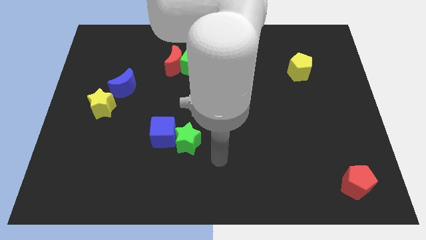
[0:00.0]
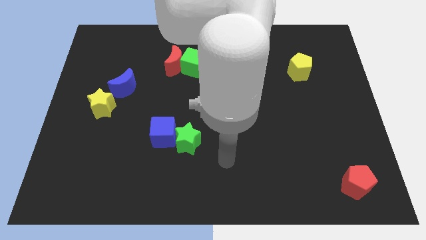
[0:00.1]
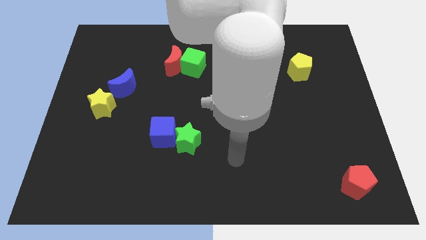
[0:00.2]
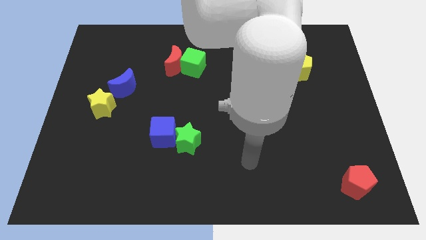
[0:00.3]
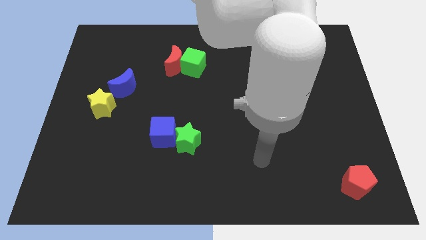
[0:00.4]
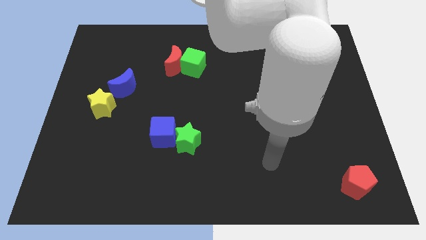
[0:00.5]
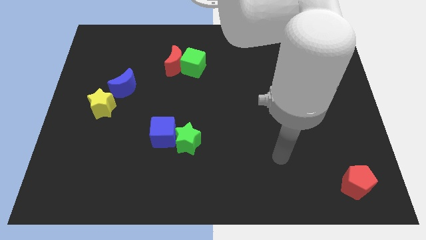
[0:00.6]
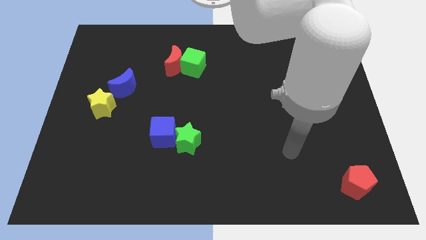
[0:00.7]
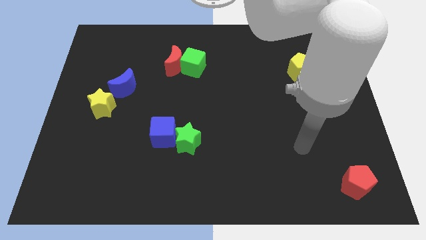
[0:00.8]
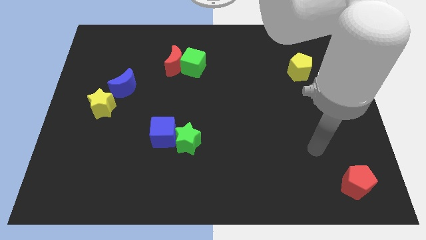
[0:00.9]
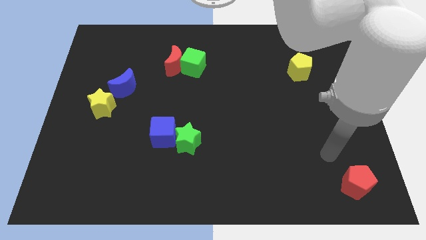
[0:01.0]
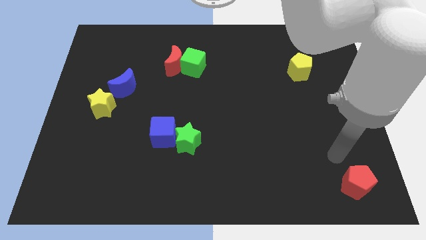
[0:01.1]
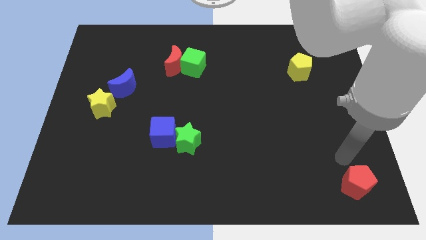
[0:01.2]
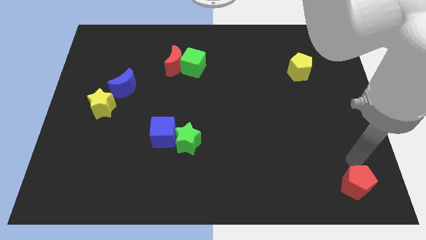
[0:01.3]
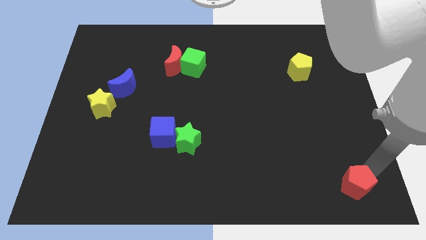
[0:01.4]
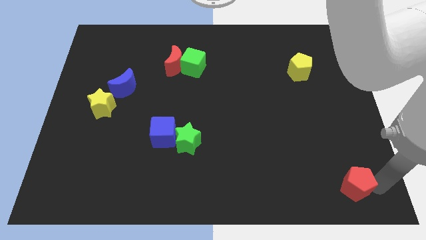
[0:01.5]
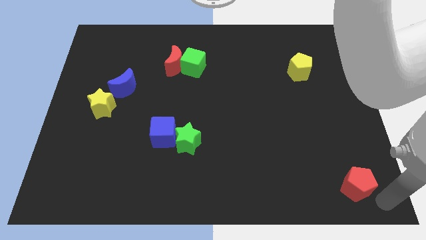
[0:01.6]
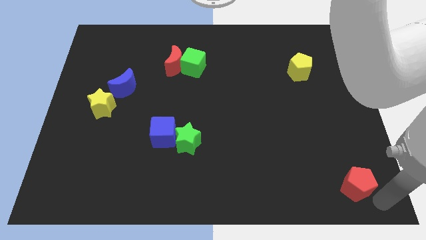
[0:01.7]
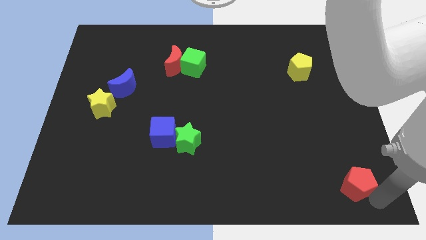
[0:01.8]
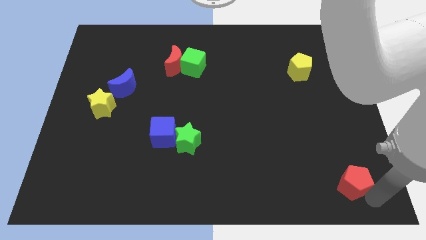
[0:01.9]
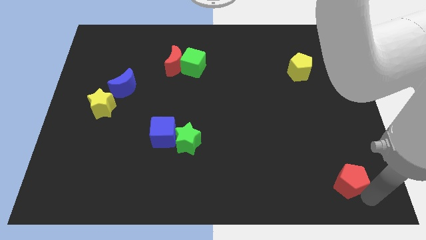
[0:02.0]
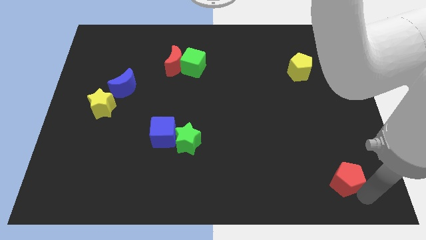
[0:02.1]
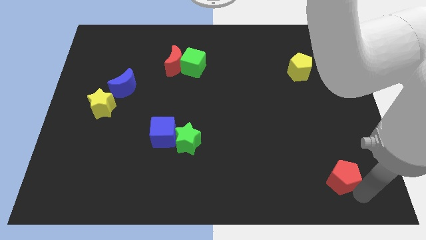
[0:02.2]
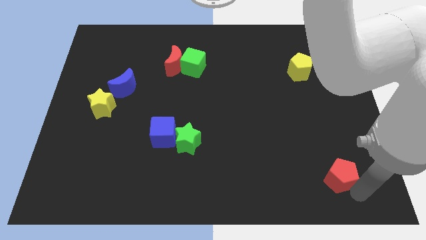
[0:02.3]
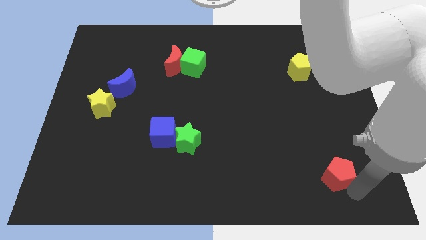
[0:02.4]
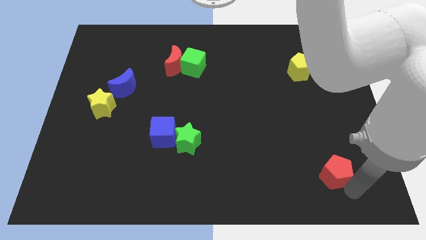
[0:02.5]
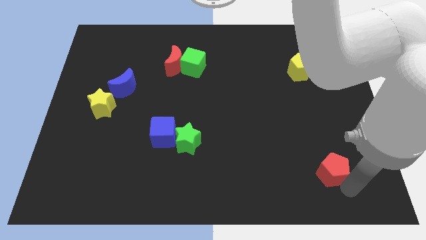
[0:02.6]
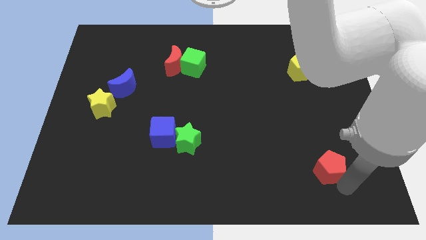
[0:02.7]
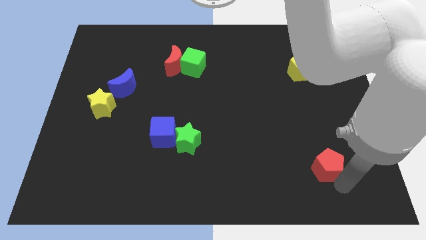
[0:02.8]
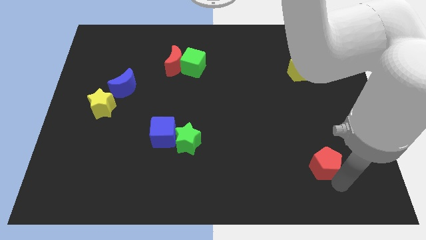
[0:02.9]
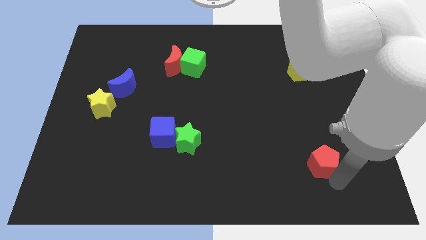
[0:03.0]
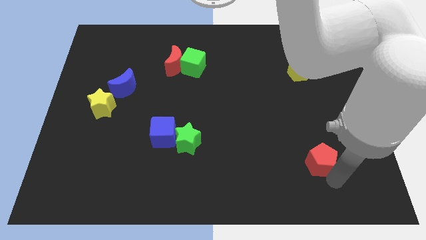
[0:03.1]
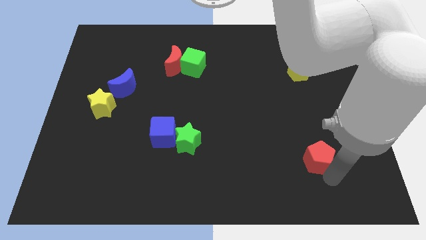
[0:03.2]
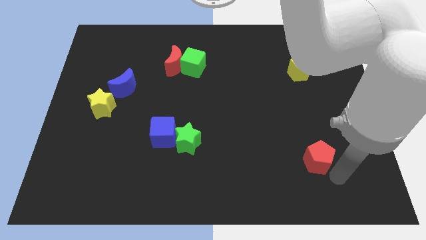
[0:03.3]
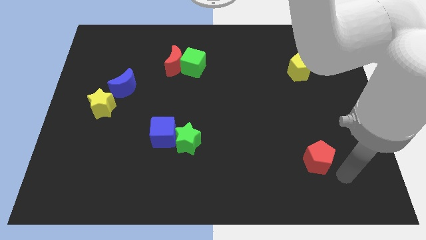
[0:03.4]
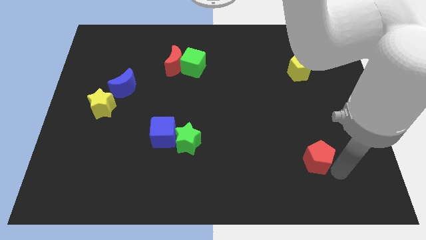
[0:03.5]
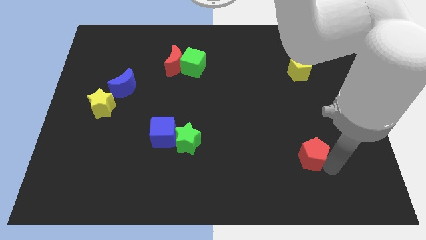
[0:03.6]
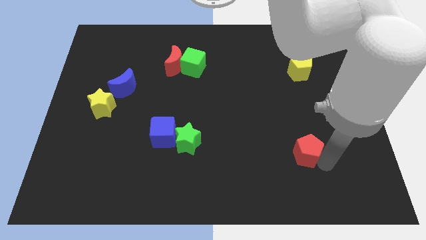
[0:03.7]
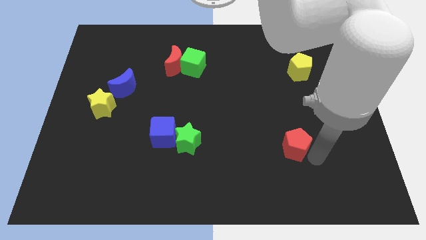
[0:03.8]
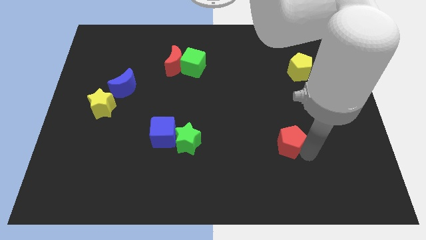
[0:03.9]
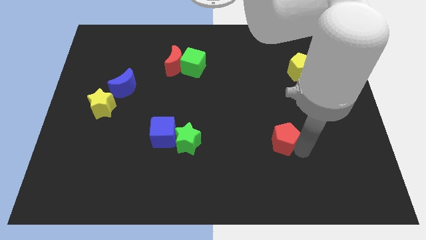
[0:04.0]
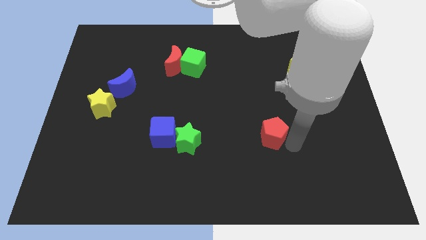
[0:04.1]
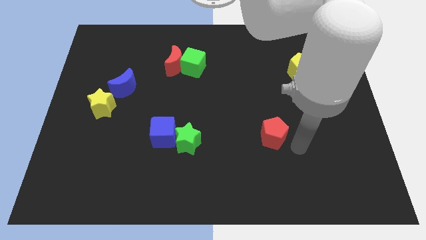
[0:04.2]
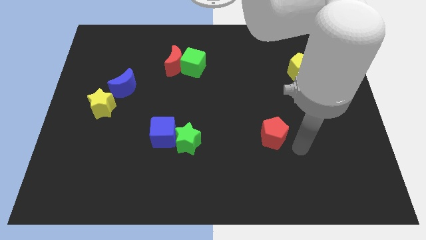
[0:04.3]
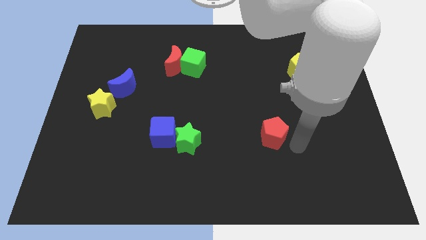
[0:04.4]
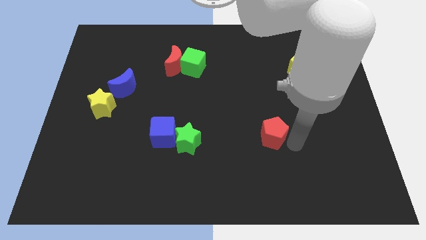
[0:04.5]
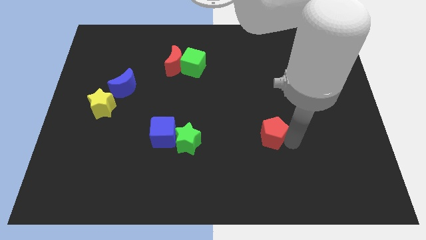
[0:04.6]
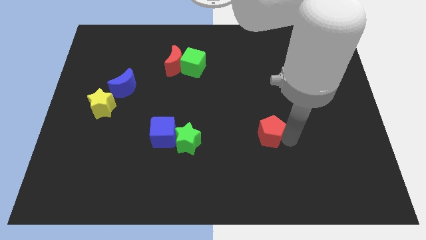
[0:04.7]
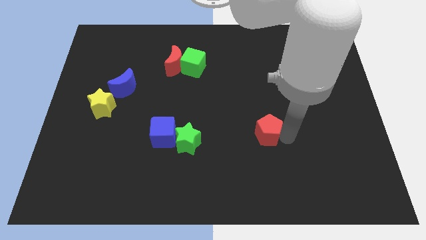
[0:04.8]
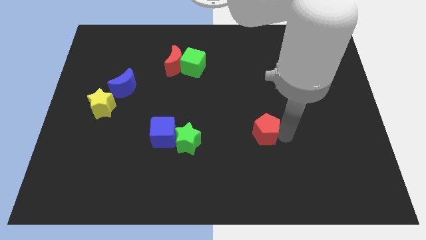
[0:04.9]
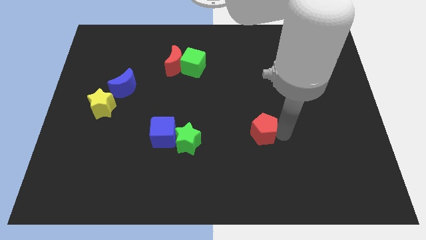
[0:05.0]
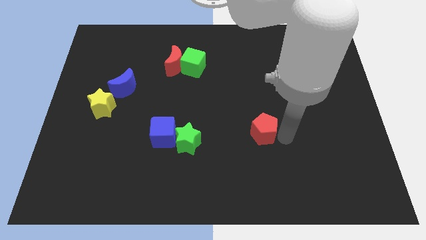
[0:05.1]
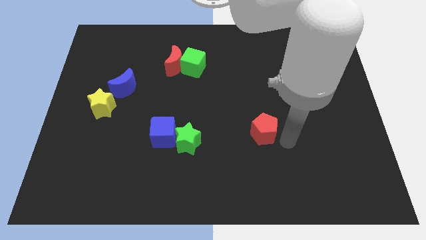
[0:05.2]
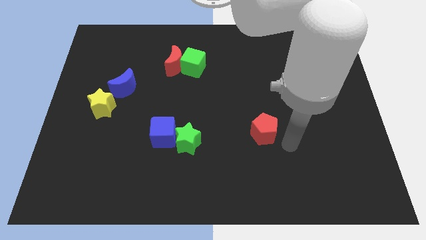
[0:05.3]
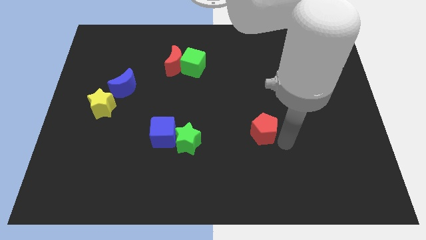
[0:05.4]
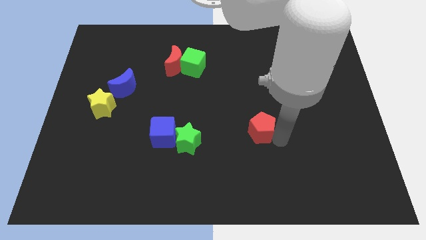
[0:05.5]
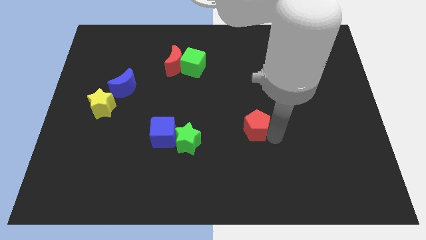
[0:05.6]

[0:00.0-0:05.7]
slide the red pentagon to the middle
